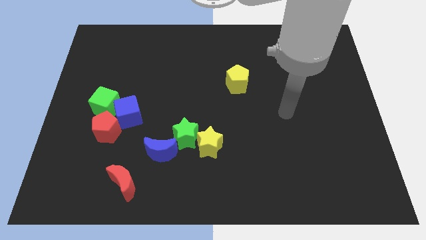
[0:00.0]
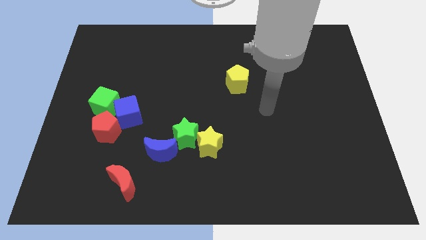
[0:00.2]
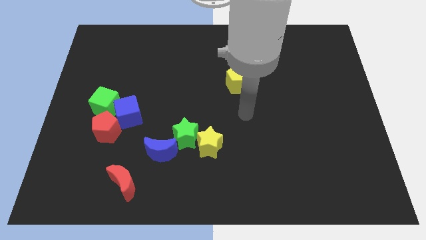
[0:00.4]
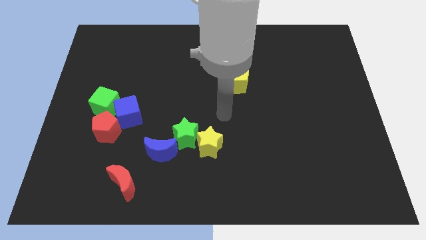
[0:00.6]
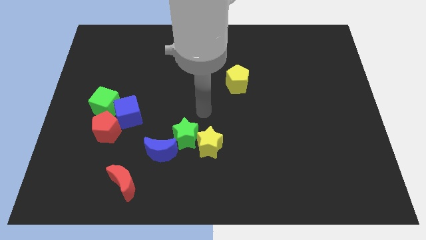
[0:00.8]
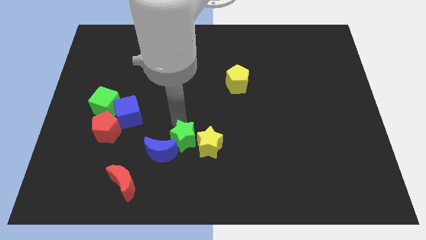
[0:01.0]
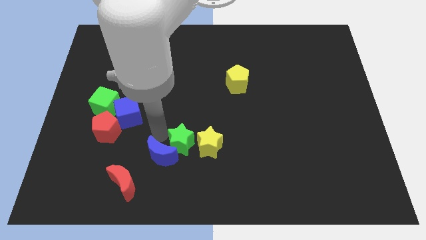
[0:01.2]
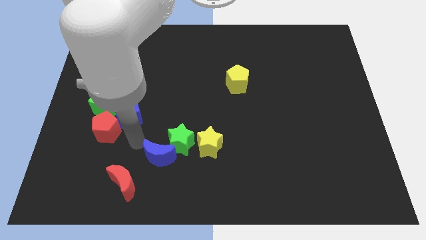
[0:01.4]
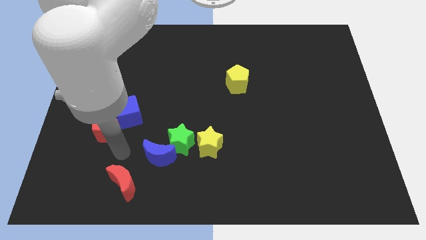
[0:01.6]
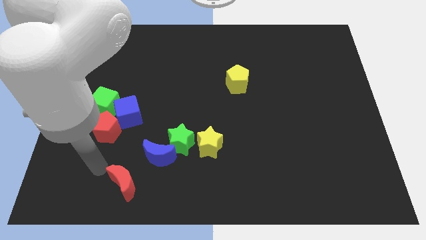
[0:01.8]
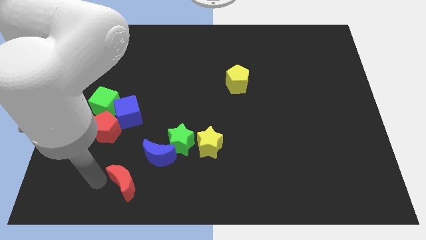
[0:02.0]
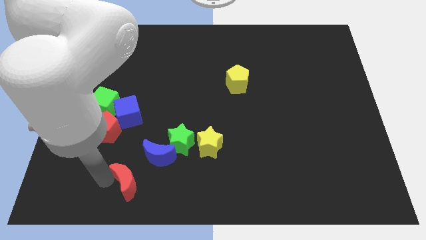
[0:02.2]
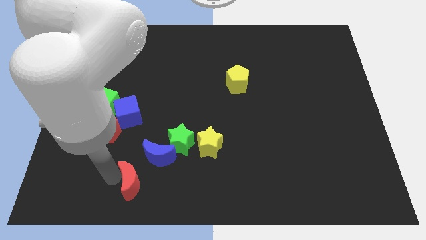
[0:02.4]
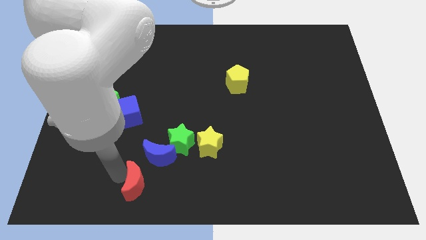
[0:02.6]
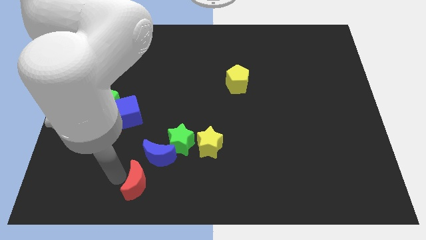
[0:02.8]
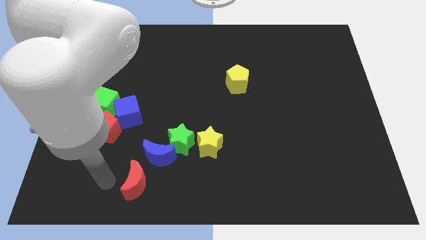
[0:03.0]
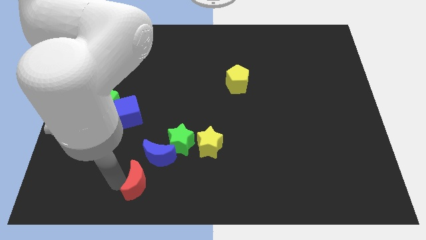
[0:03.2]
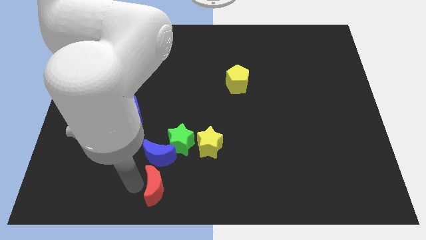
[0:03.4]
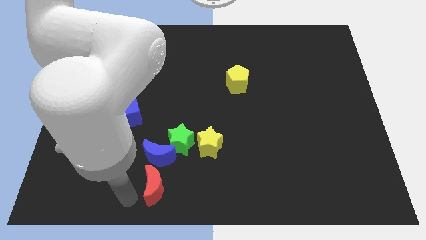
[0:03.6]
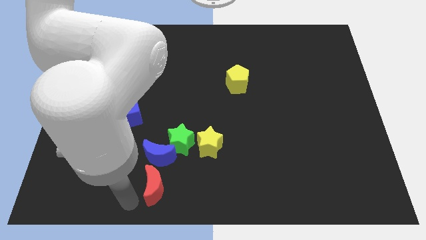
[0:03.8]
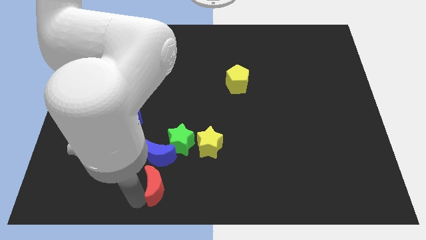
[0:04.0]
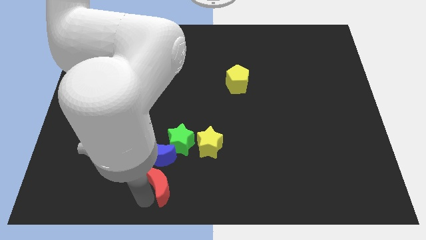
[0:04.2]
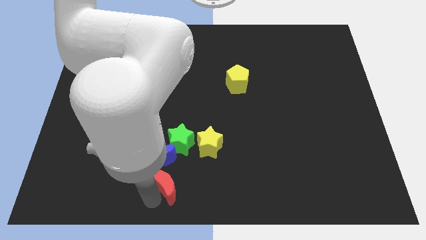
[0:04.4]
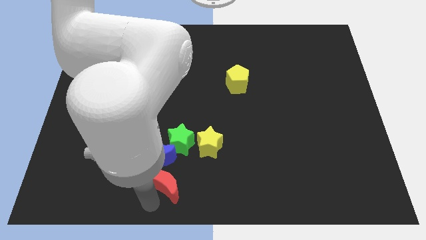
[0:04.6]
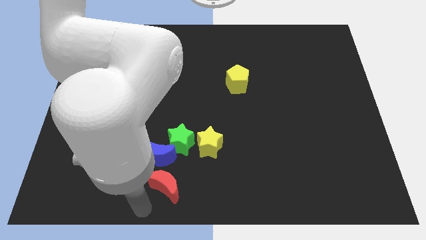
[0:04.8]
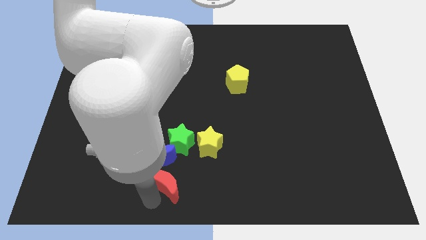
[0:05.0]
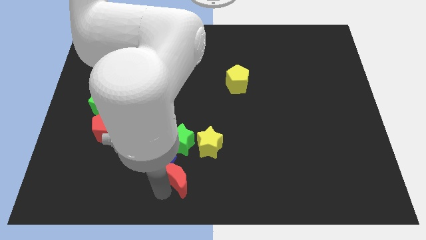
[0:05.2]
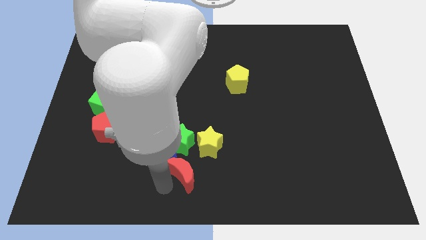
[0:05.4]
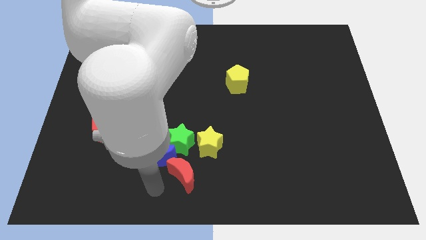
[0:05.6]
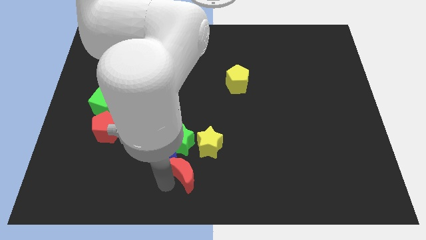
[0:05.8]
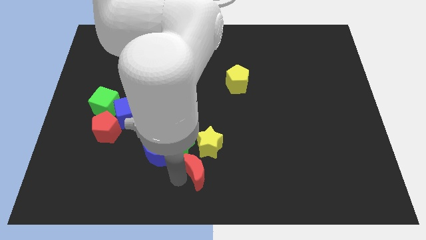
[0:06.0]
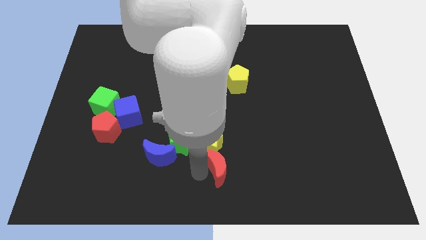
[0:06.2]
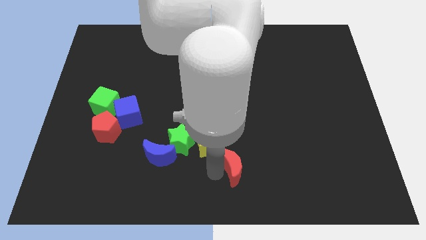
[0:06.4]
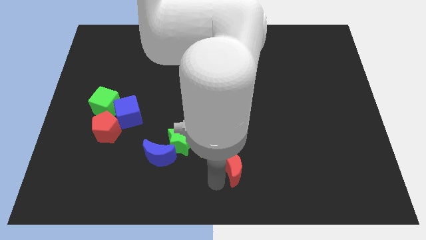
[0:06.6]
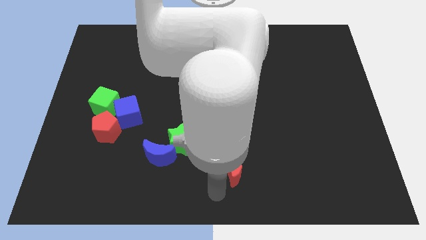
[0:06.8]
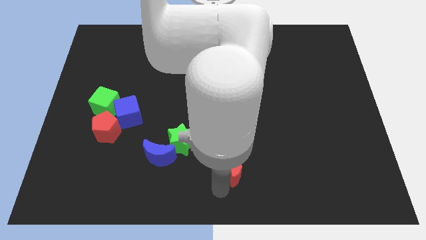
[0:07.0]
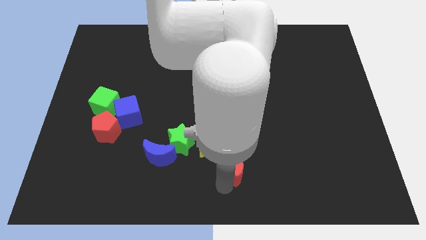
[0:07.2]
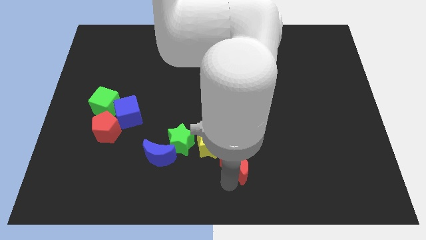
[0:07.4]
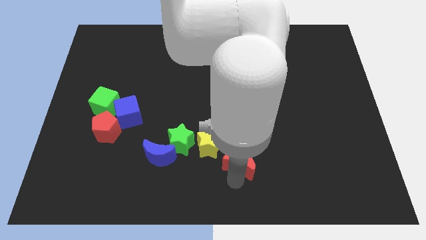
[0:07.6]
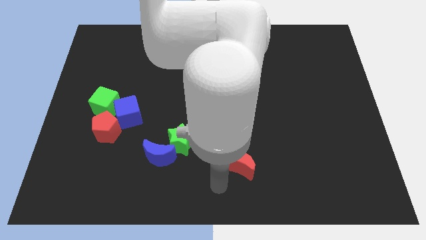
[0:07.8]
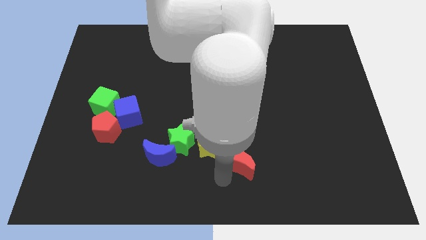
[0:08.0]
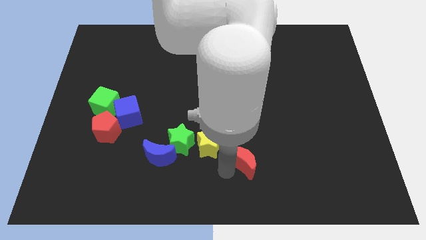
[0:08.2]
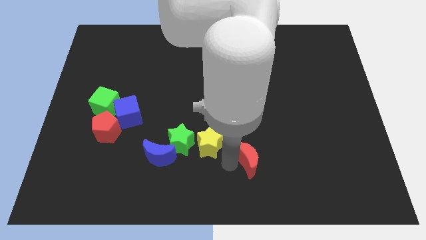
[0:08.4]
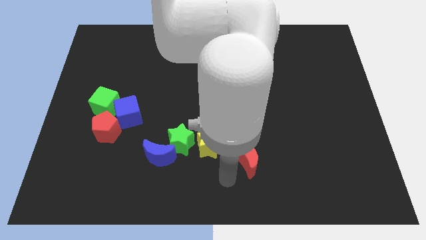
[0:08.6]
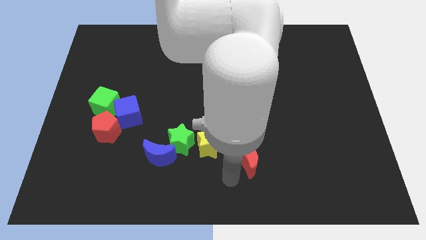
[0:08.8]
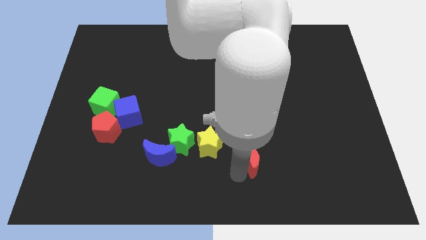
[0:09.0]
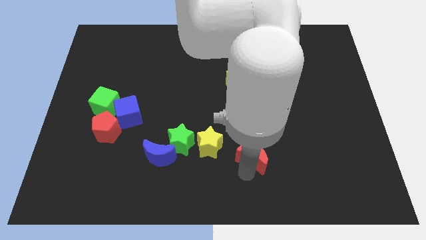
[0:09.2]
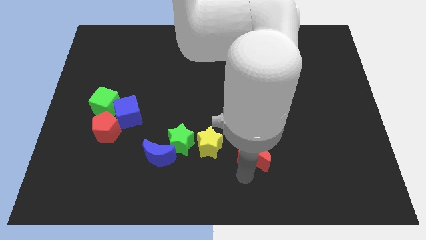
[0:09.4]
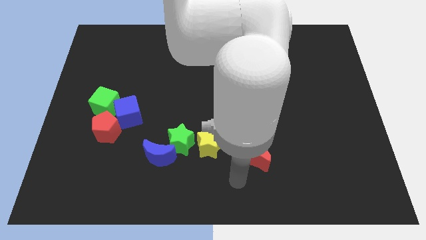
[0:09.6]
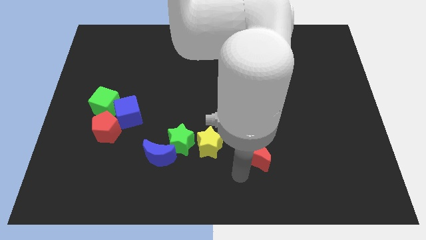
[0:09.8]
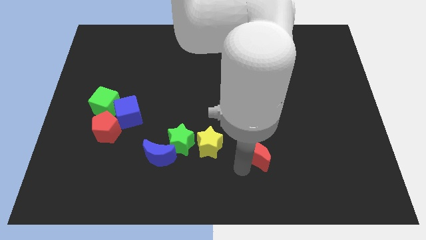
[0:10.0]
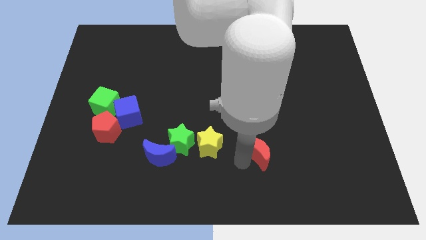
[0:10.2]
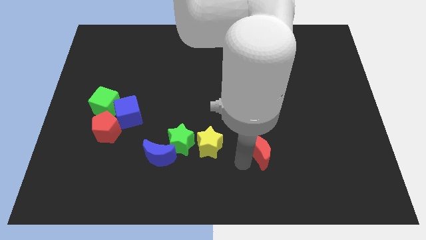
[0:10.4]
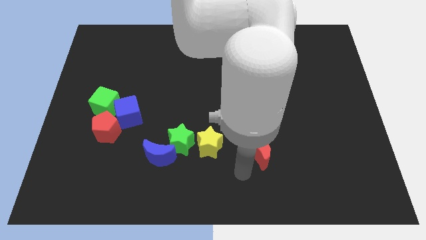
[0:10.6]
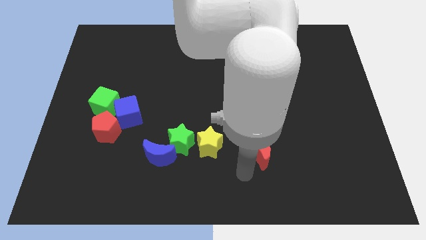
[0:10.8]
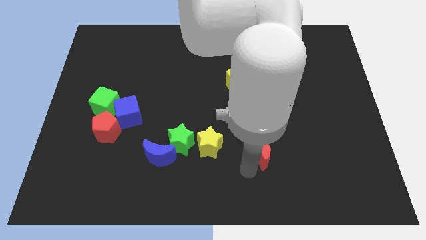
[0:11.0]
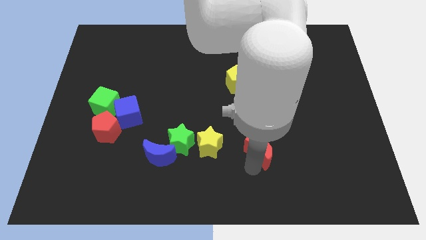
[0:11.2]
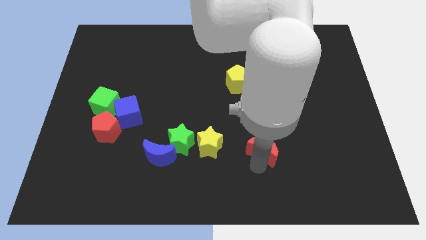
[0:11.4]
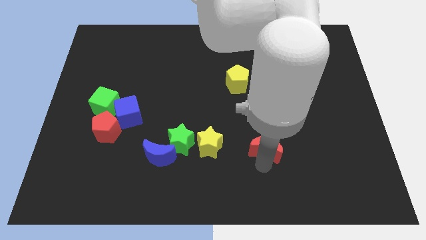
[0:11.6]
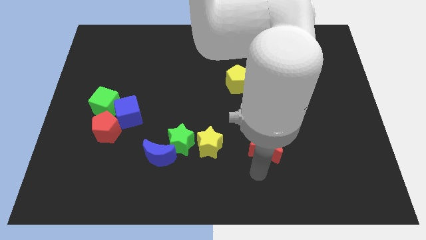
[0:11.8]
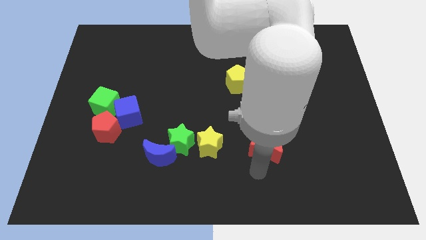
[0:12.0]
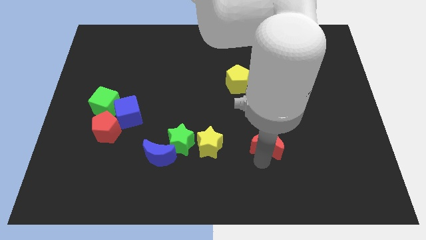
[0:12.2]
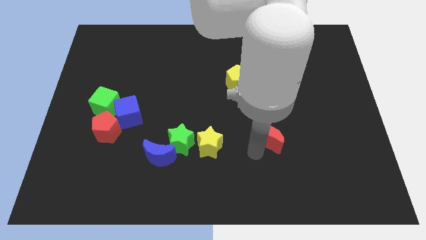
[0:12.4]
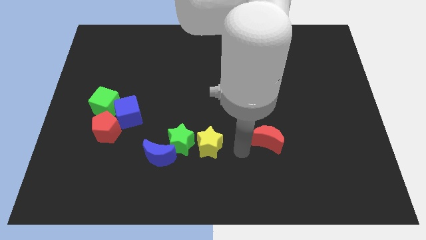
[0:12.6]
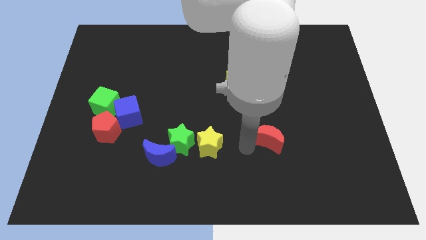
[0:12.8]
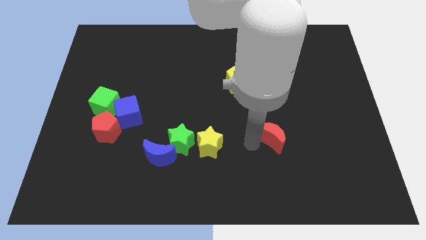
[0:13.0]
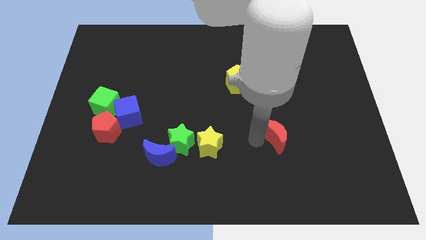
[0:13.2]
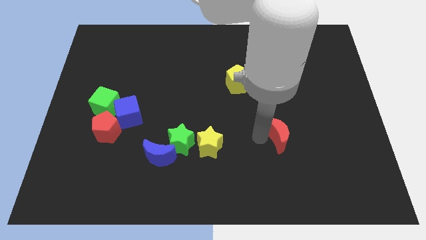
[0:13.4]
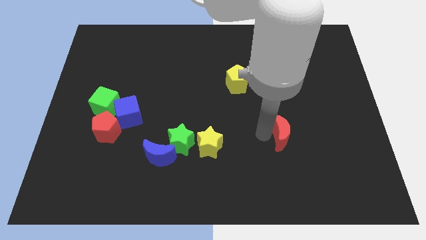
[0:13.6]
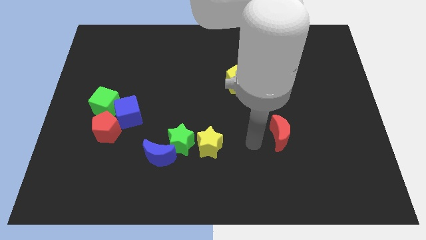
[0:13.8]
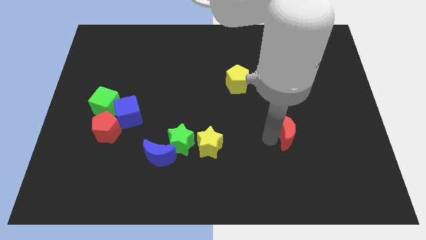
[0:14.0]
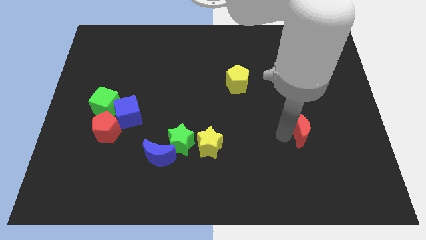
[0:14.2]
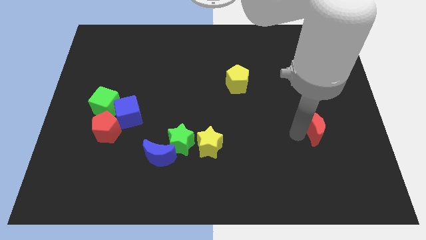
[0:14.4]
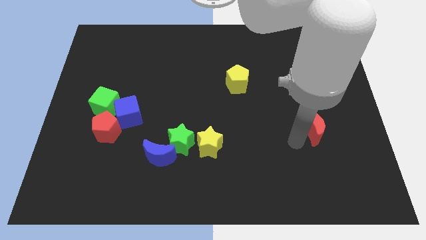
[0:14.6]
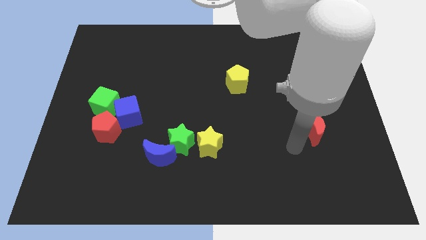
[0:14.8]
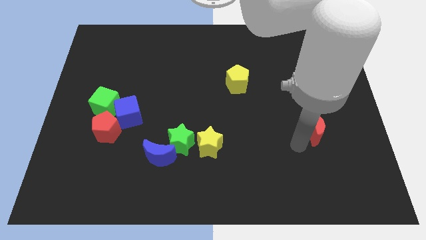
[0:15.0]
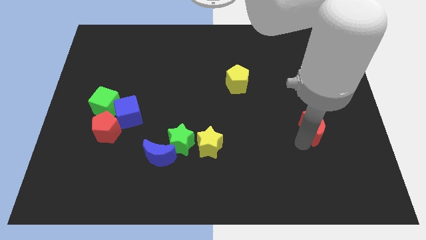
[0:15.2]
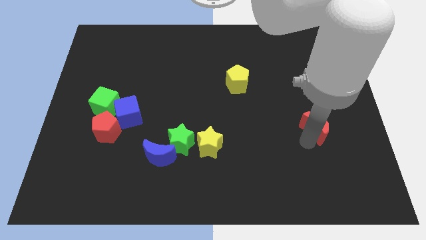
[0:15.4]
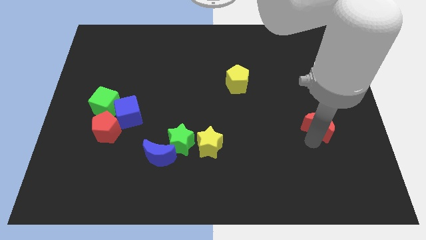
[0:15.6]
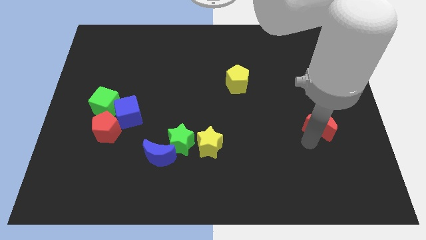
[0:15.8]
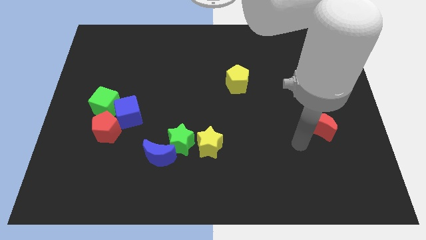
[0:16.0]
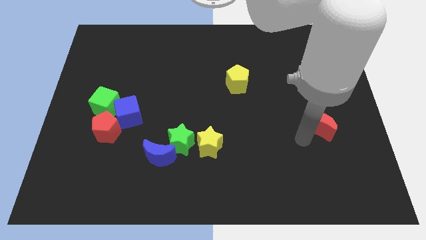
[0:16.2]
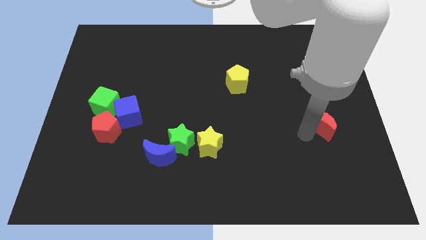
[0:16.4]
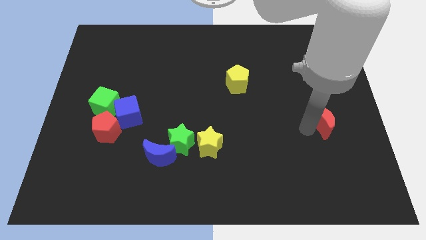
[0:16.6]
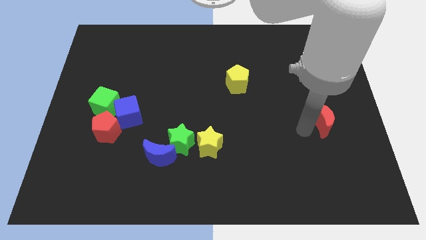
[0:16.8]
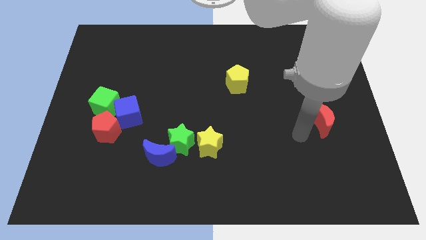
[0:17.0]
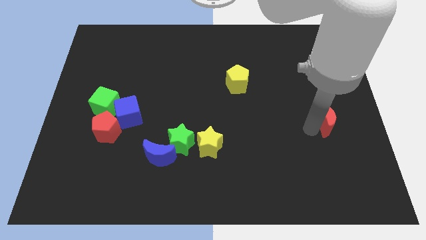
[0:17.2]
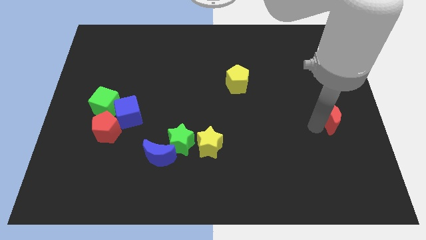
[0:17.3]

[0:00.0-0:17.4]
push the red moon to the center right
